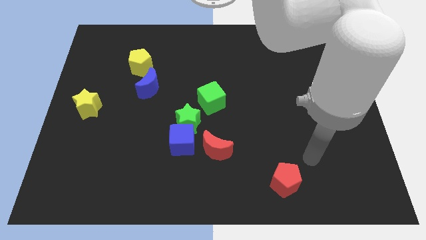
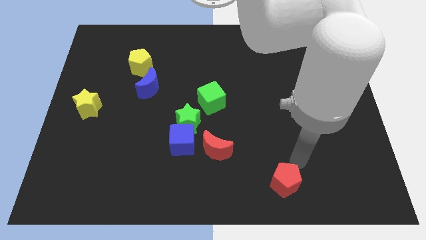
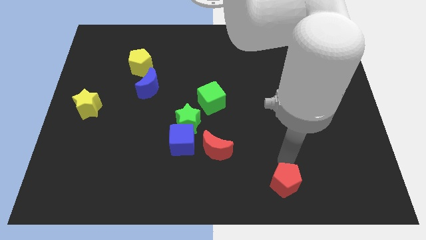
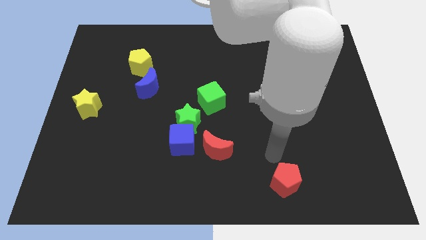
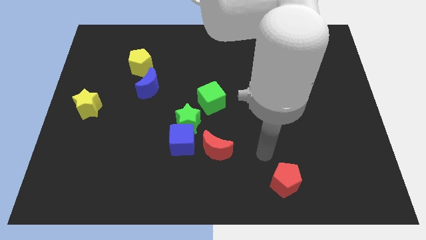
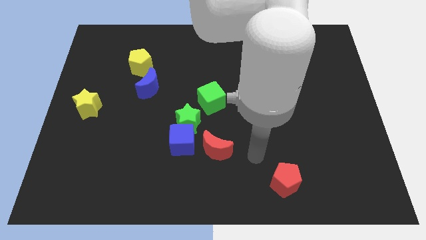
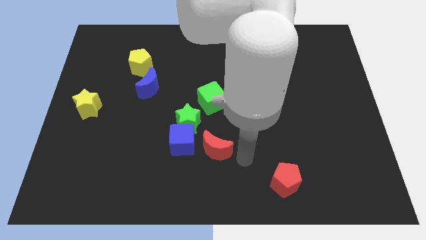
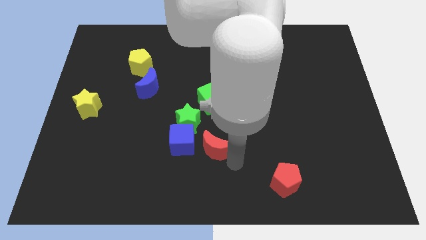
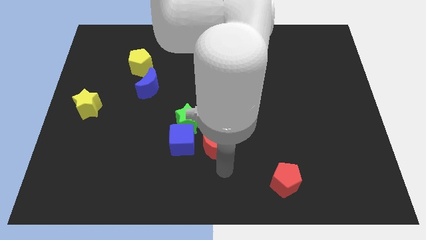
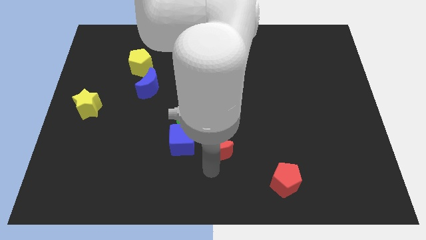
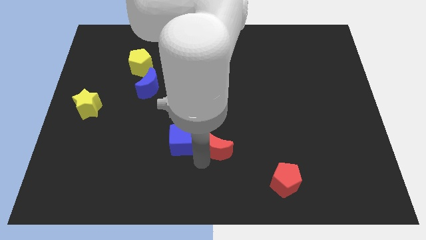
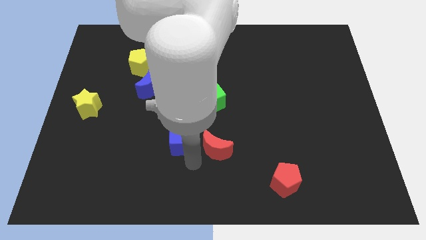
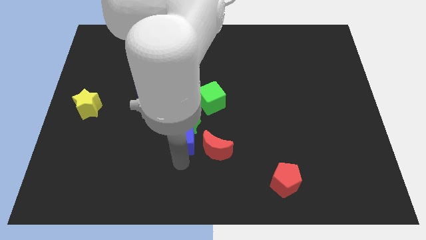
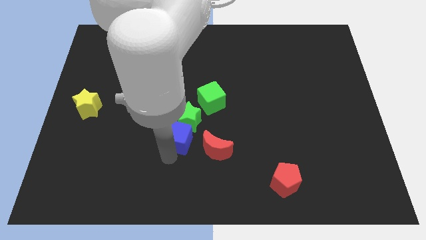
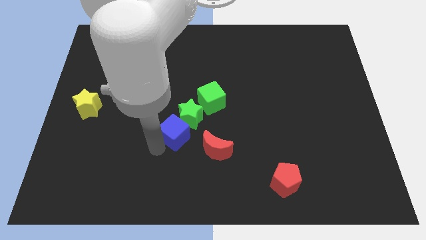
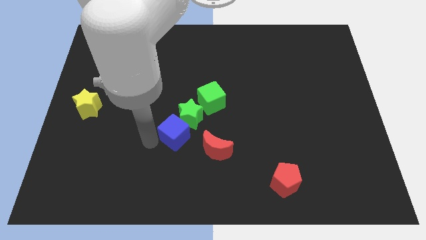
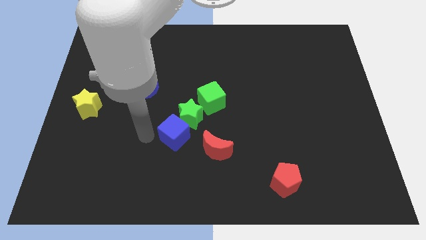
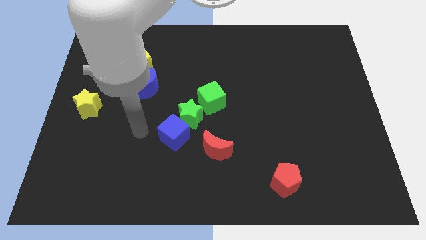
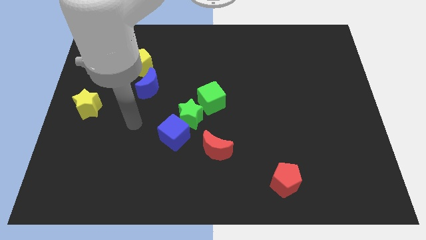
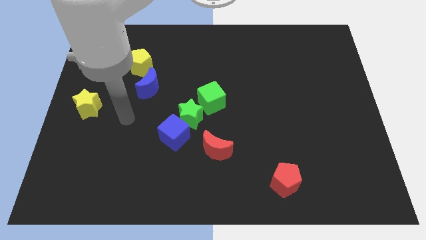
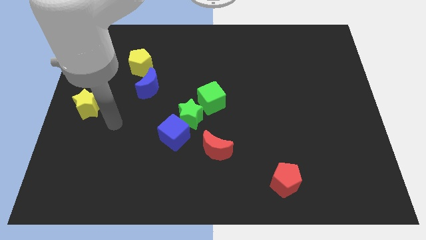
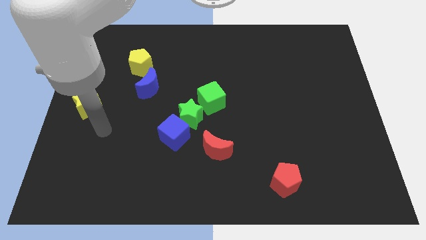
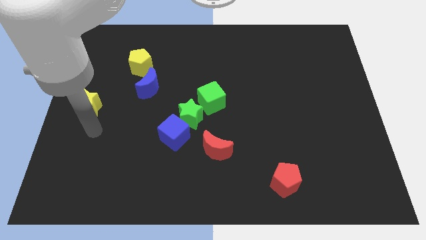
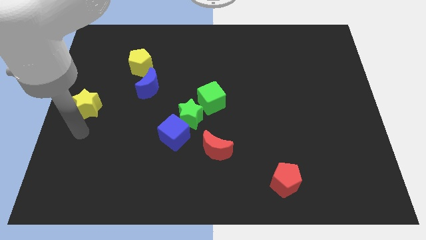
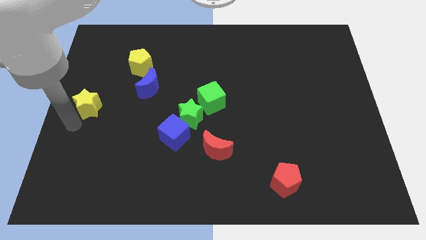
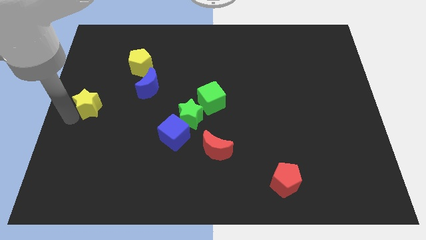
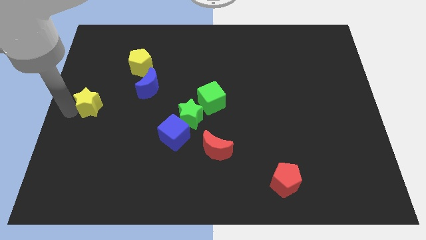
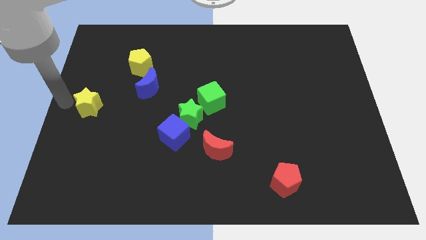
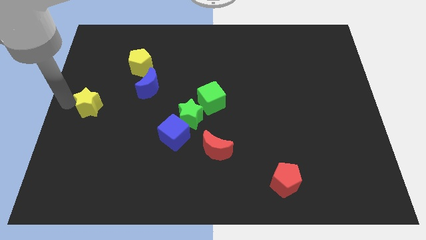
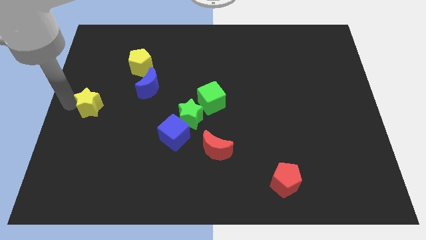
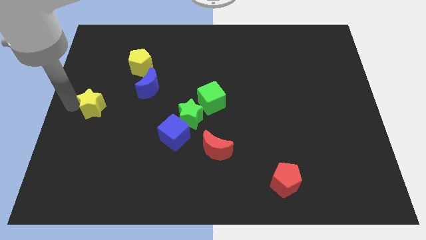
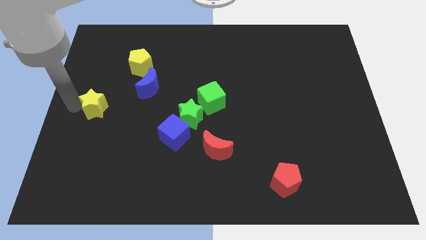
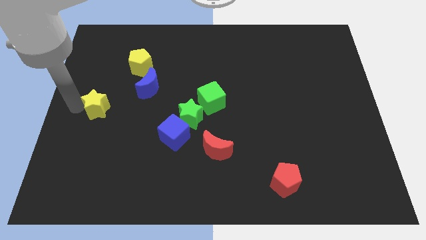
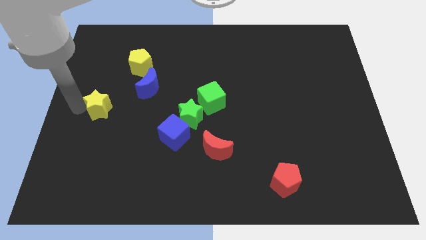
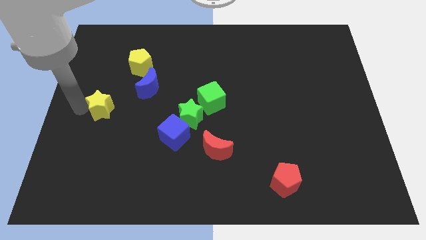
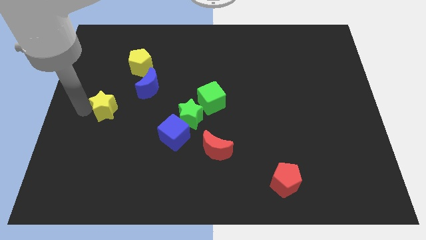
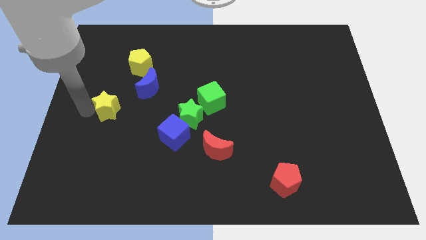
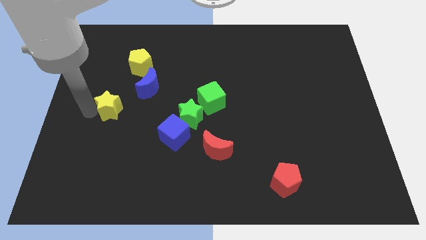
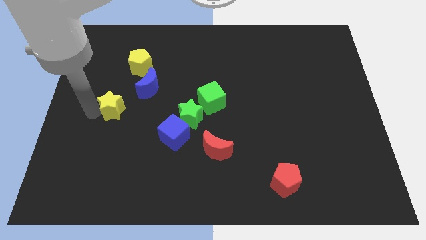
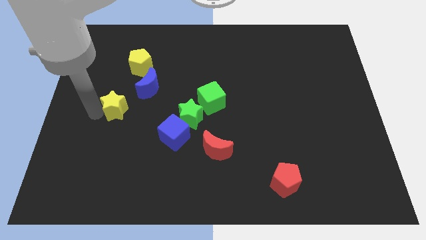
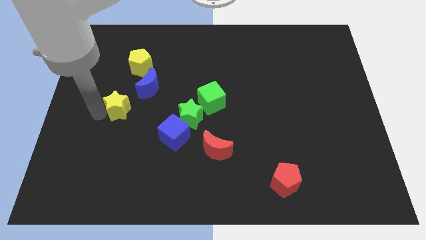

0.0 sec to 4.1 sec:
slightly push the yellow star to the right

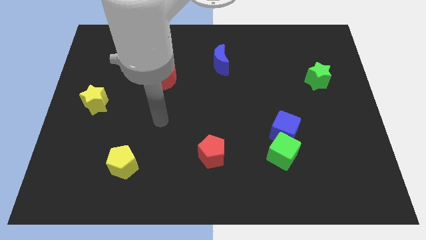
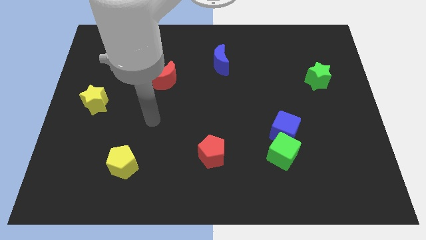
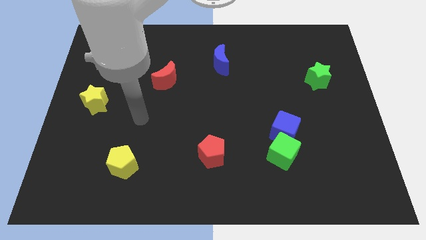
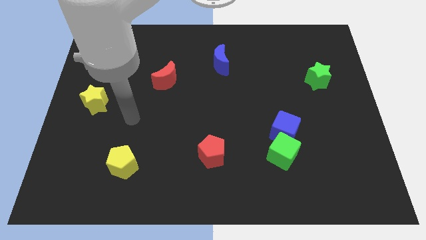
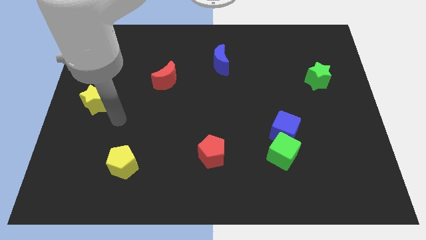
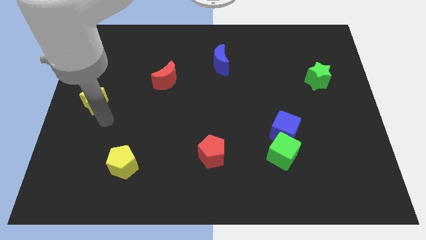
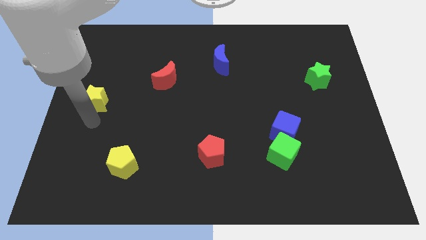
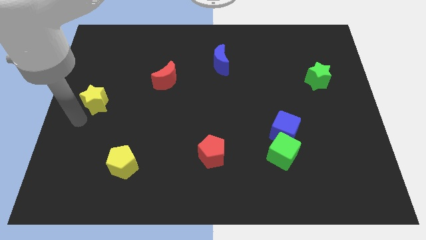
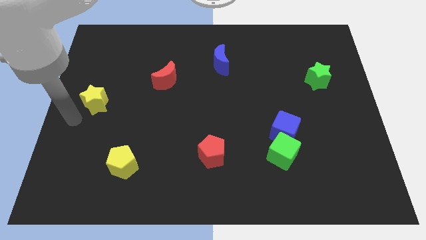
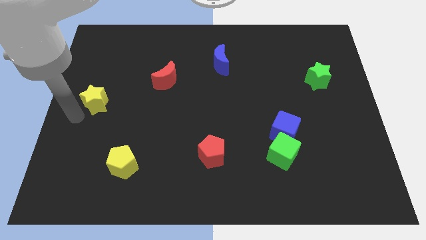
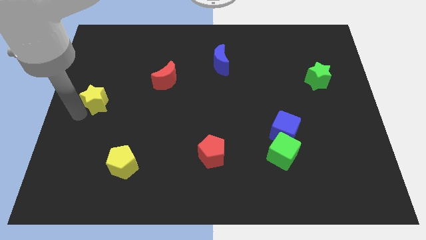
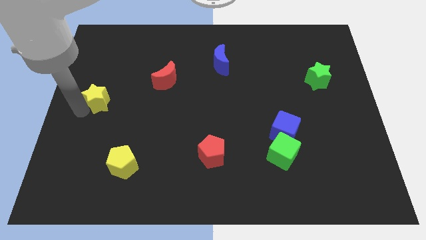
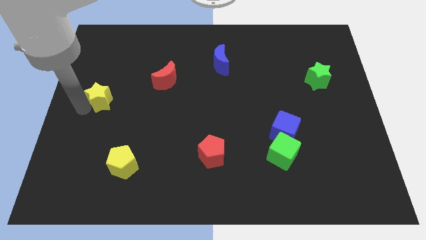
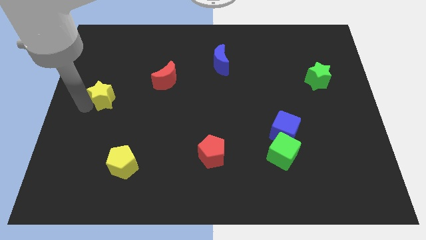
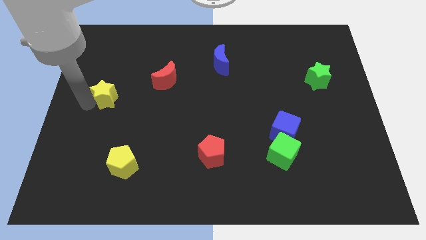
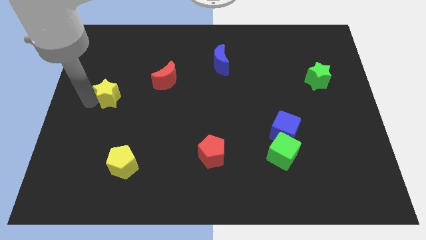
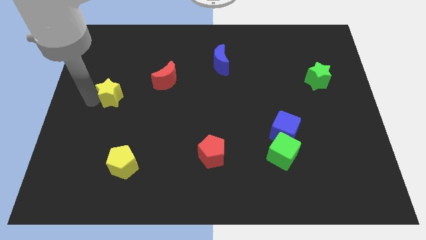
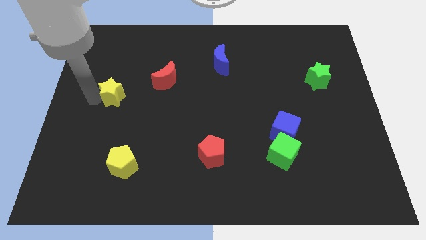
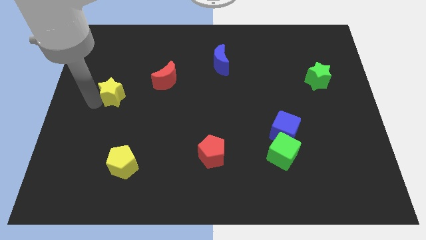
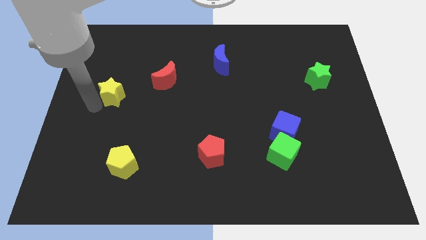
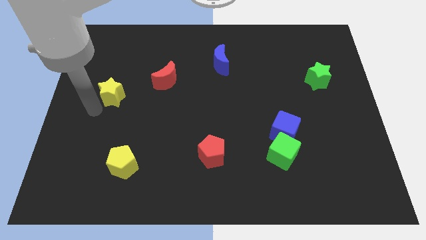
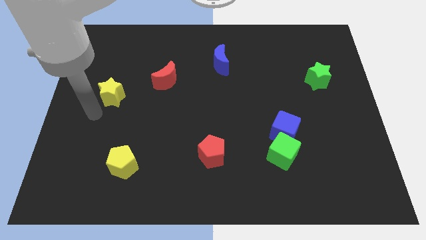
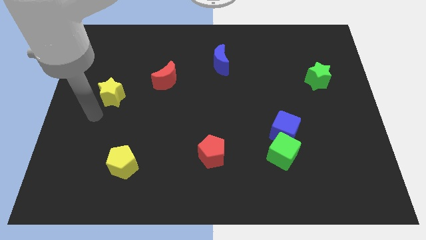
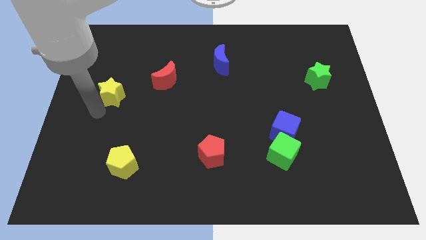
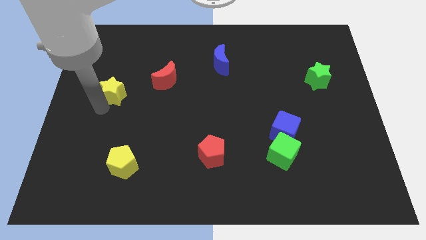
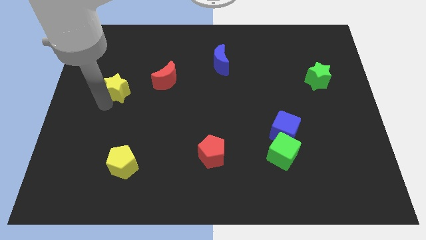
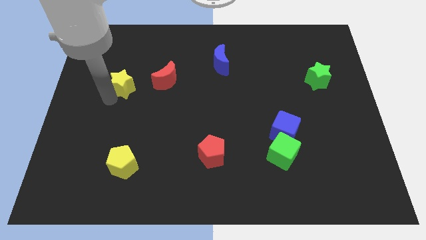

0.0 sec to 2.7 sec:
slide the yellow star a little upwards and right diagonally

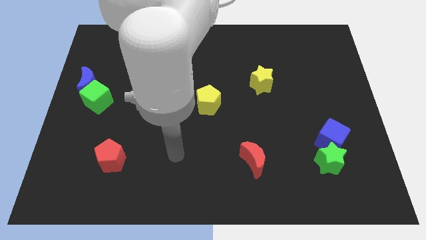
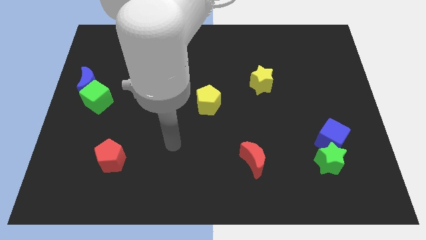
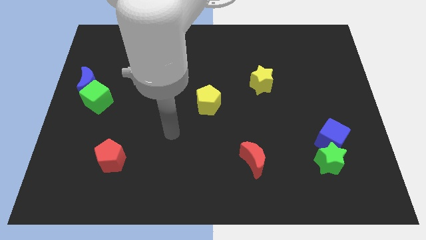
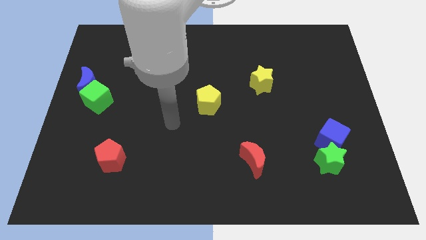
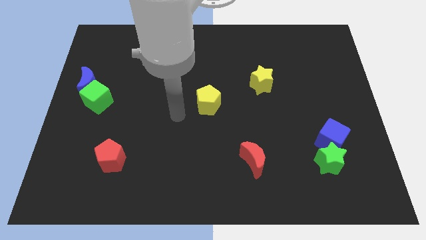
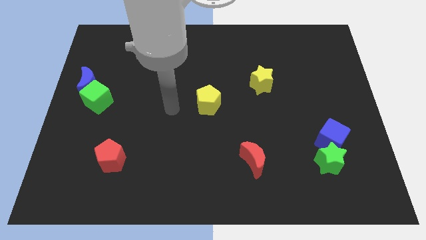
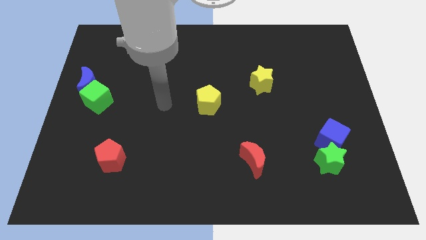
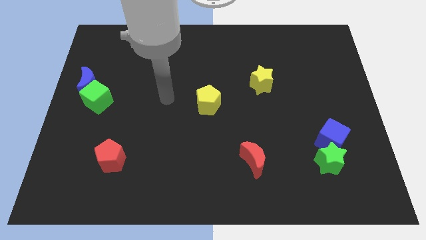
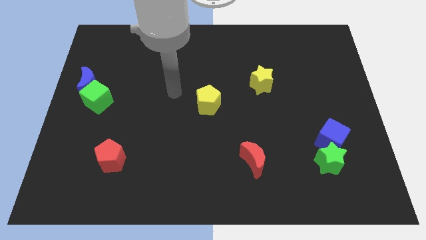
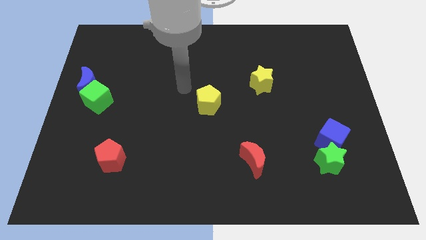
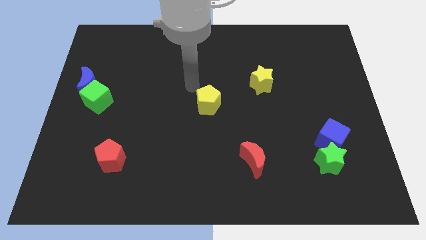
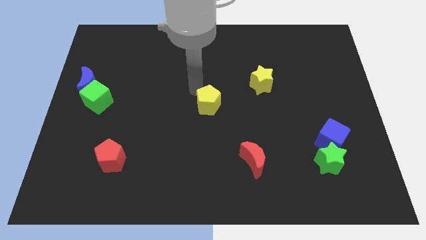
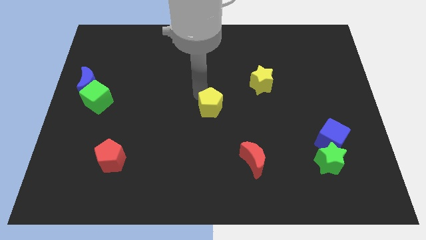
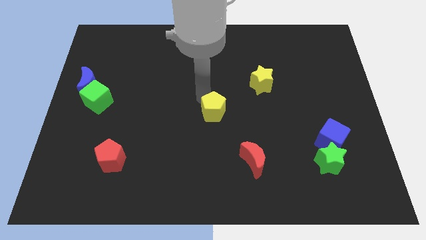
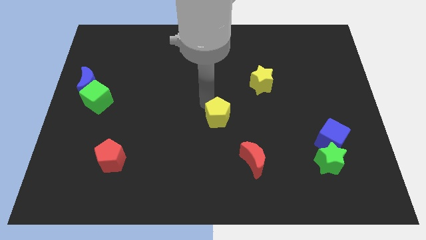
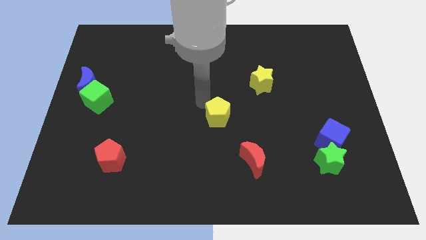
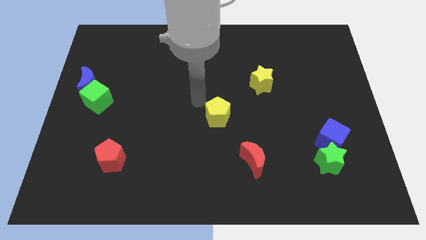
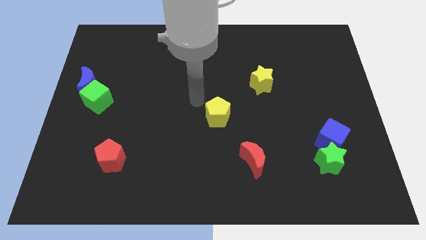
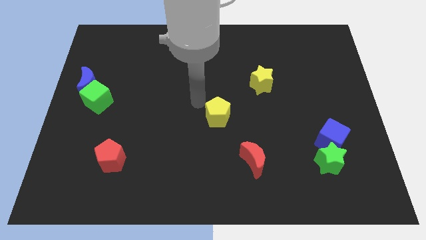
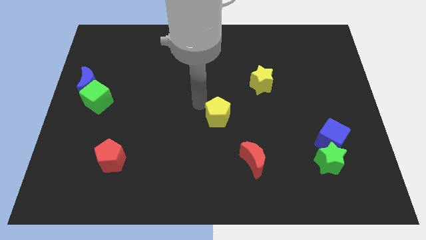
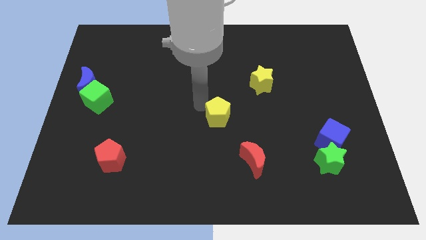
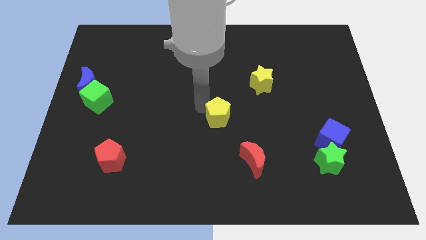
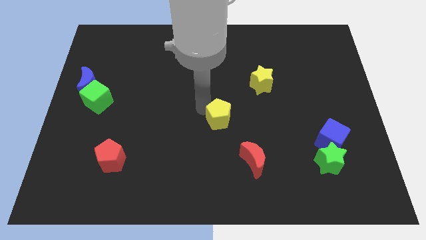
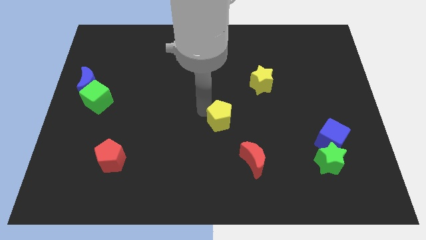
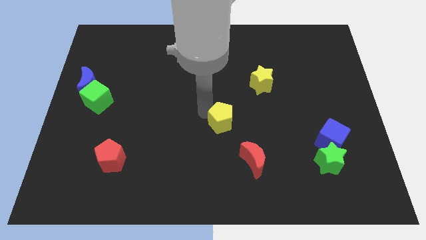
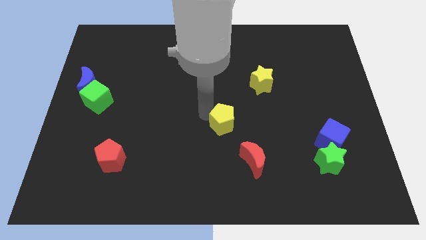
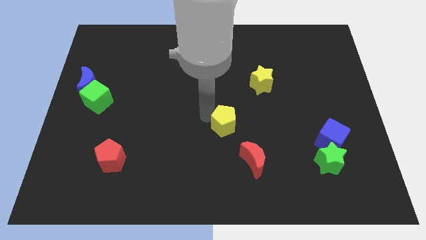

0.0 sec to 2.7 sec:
push the yellow pentagon somewhat downwards and then right
